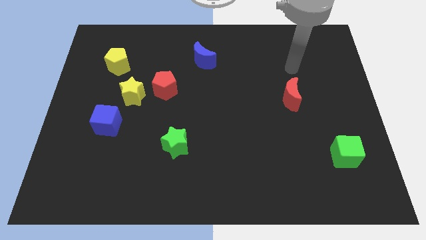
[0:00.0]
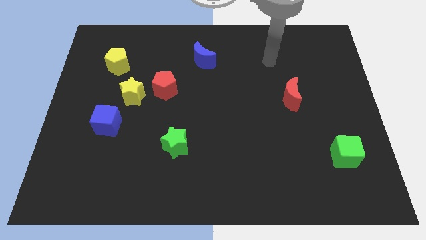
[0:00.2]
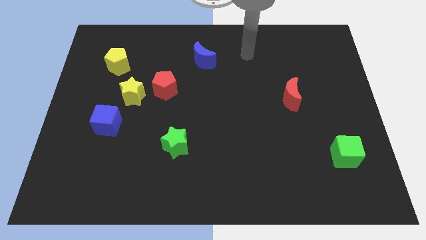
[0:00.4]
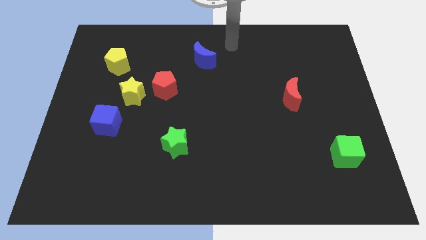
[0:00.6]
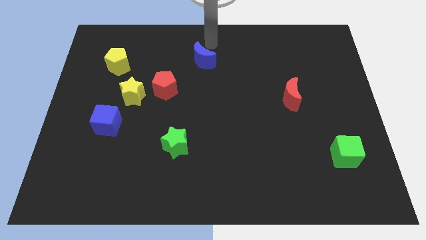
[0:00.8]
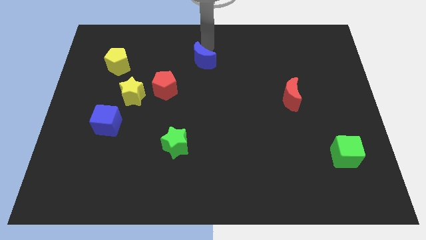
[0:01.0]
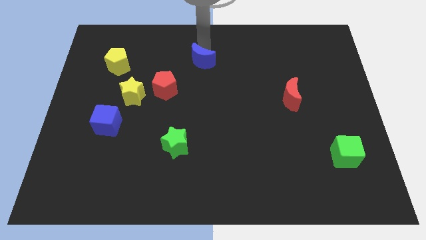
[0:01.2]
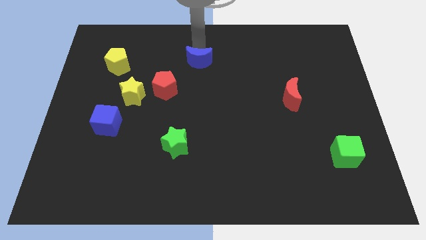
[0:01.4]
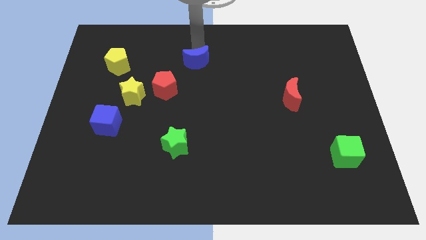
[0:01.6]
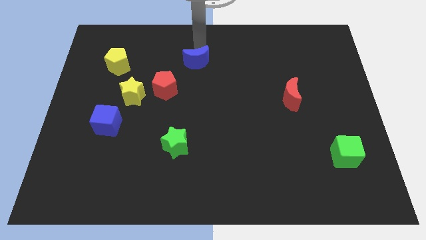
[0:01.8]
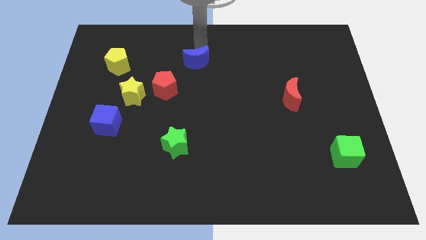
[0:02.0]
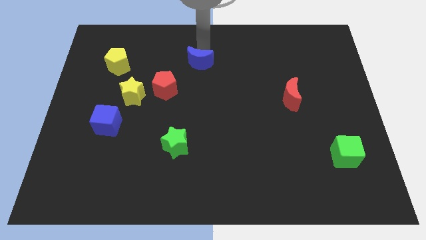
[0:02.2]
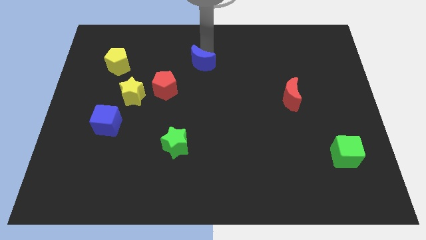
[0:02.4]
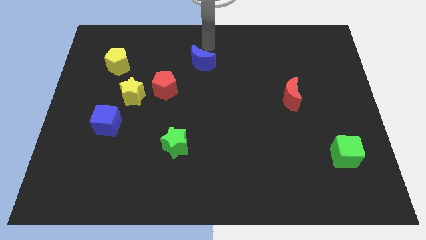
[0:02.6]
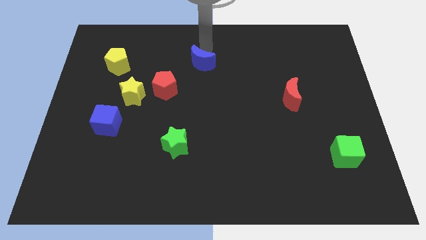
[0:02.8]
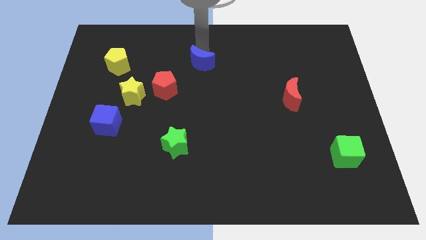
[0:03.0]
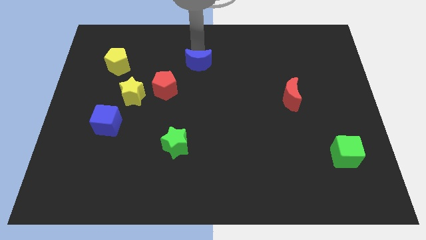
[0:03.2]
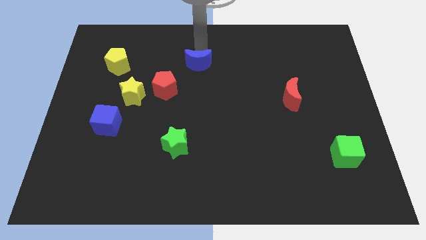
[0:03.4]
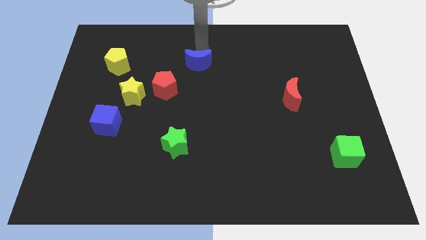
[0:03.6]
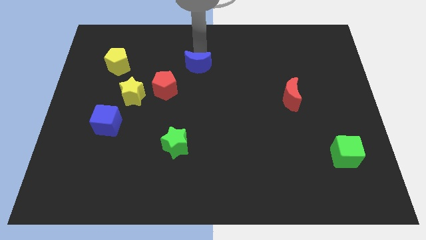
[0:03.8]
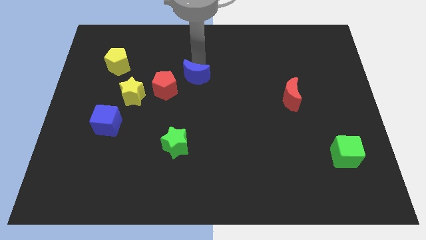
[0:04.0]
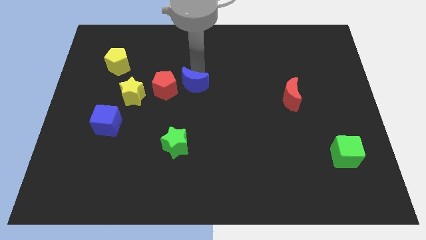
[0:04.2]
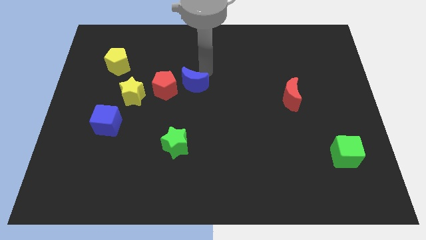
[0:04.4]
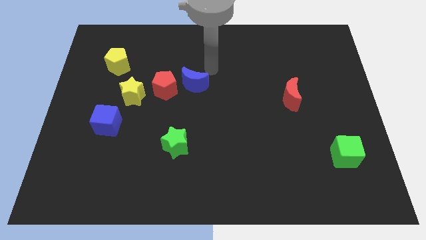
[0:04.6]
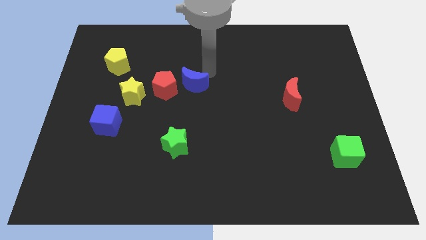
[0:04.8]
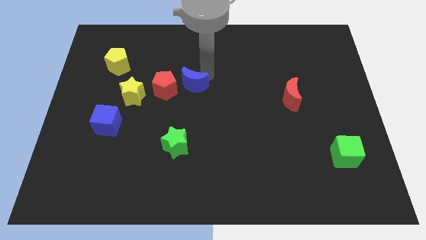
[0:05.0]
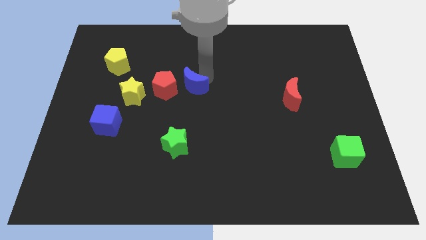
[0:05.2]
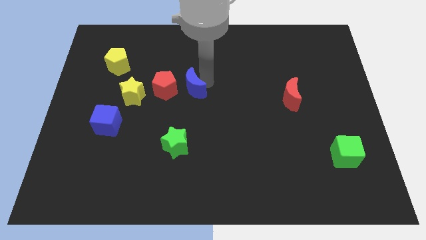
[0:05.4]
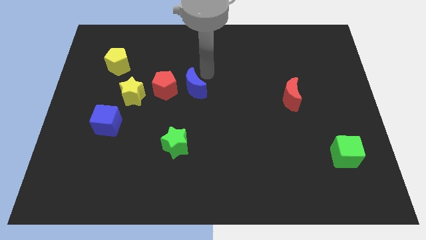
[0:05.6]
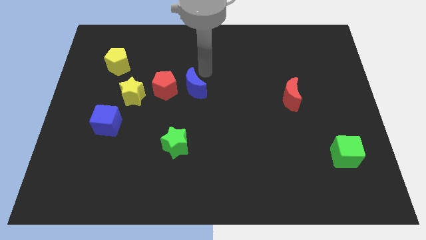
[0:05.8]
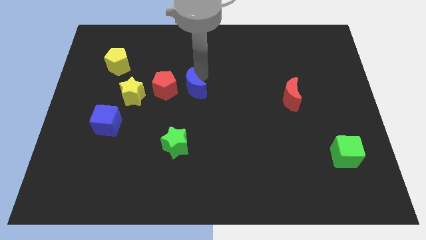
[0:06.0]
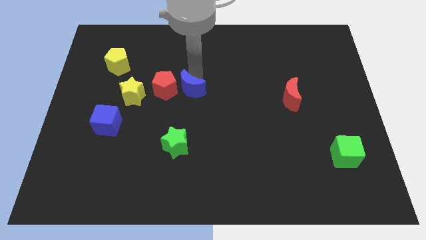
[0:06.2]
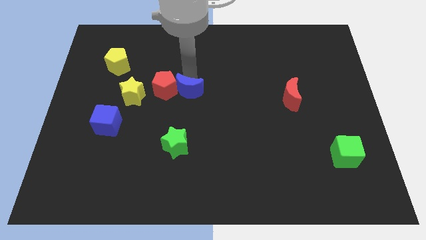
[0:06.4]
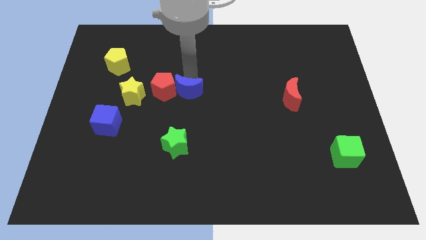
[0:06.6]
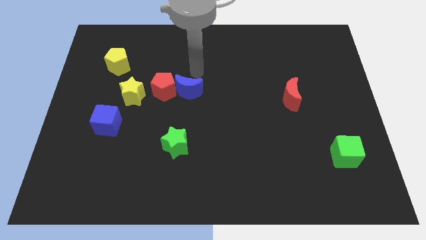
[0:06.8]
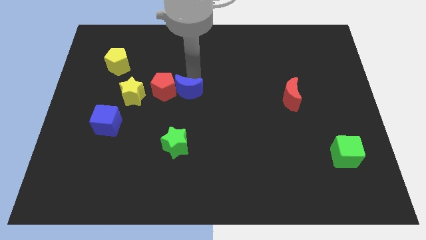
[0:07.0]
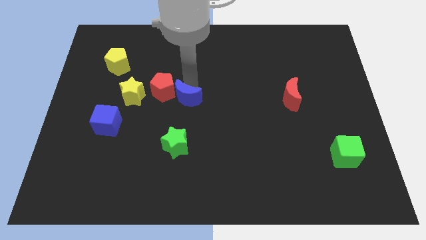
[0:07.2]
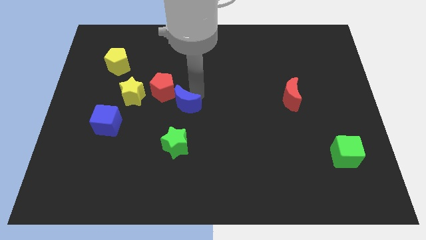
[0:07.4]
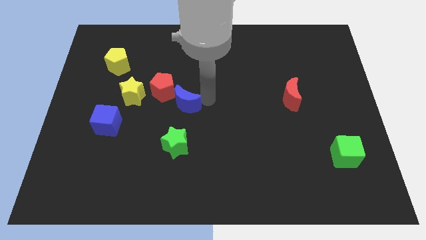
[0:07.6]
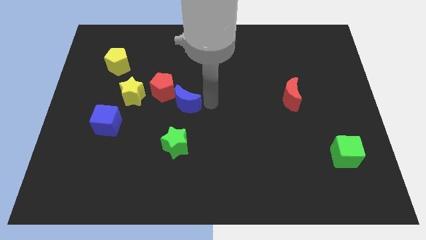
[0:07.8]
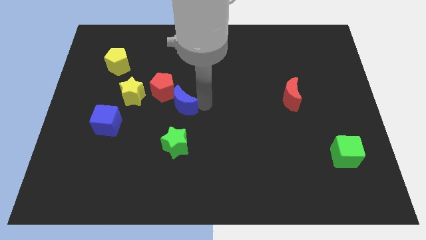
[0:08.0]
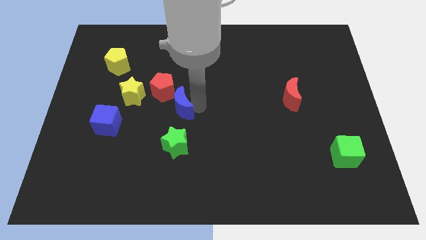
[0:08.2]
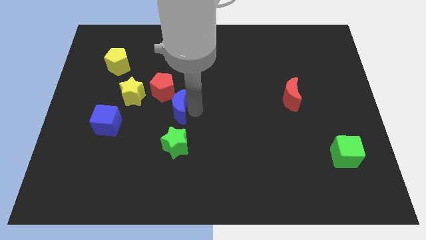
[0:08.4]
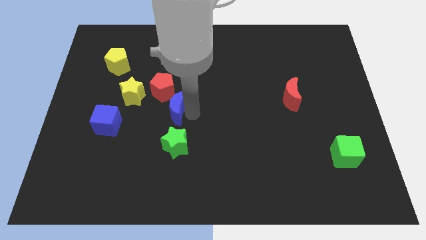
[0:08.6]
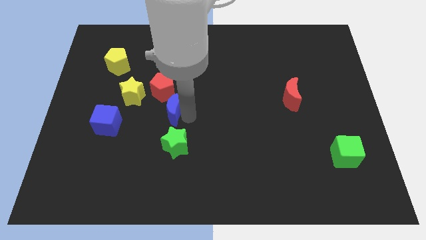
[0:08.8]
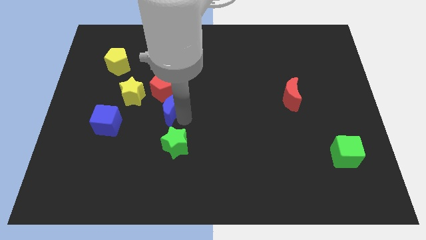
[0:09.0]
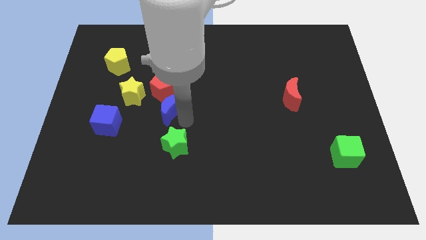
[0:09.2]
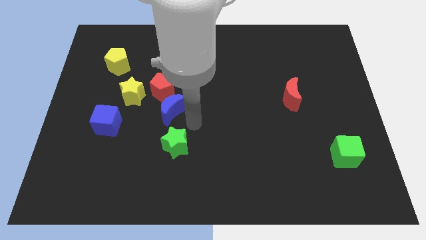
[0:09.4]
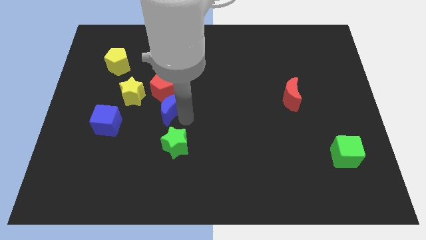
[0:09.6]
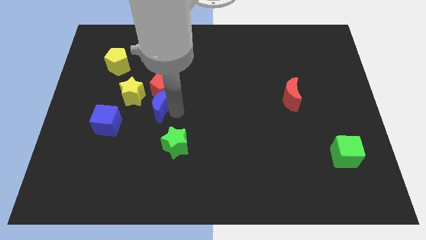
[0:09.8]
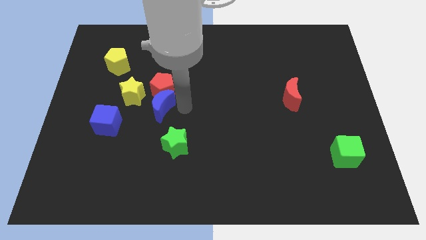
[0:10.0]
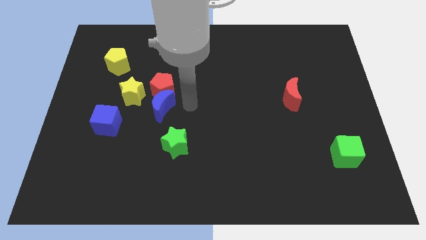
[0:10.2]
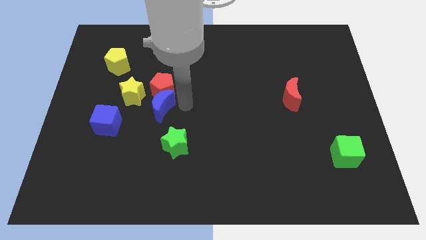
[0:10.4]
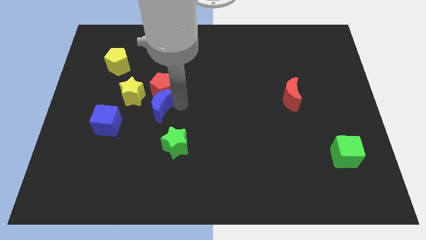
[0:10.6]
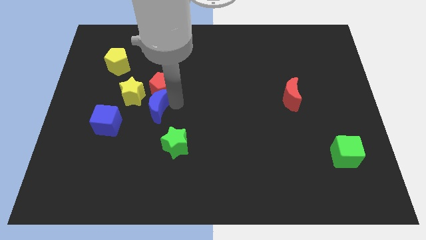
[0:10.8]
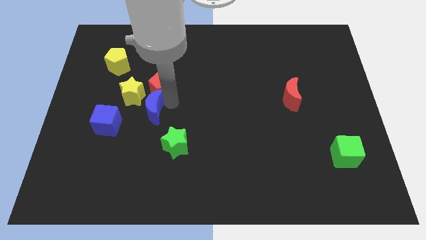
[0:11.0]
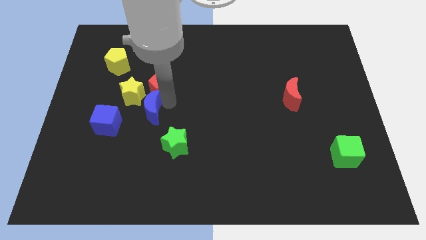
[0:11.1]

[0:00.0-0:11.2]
put the blue moon below the yellow star

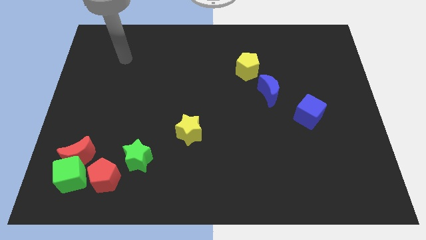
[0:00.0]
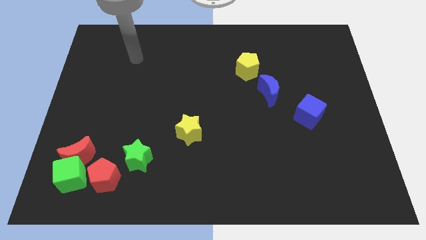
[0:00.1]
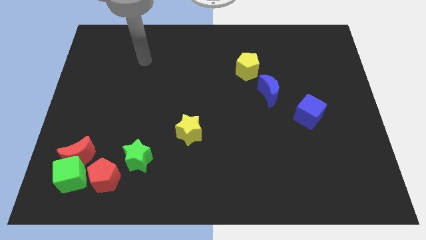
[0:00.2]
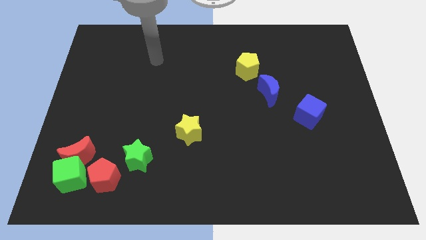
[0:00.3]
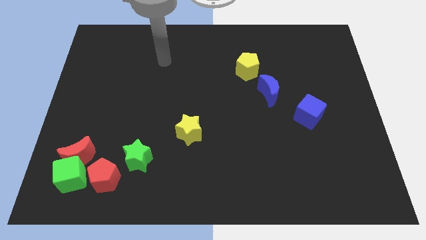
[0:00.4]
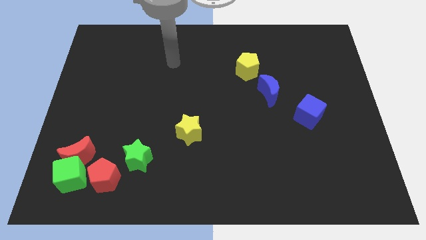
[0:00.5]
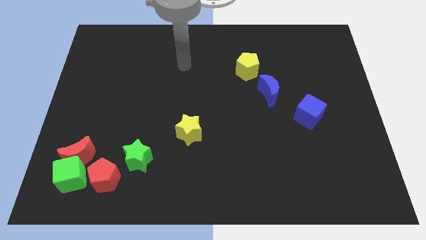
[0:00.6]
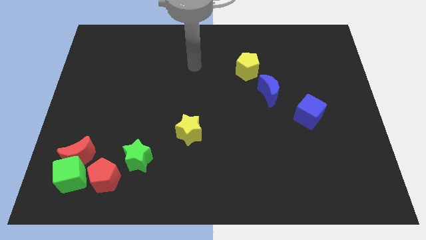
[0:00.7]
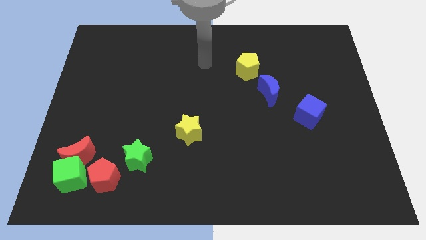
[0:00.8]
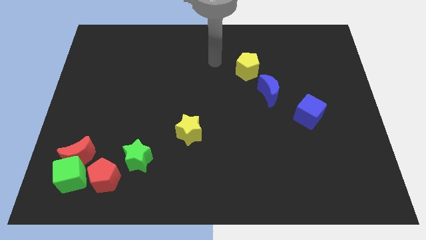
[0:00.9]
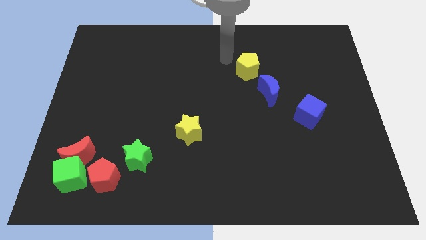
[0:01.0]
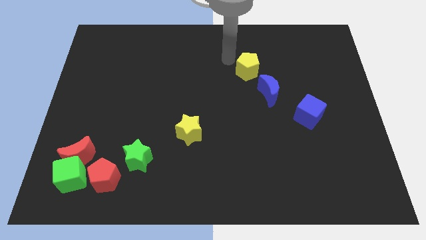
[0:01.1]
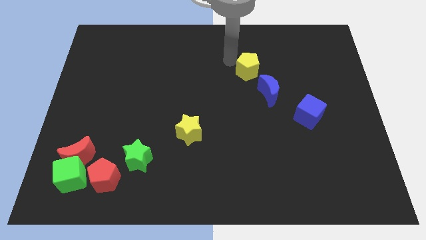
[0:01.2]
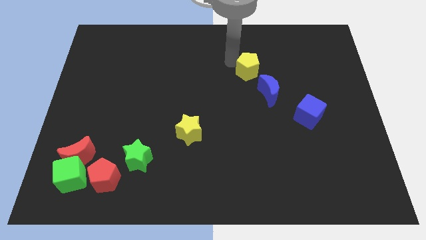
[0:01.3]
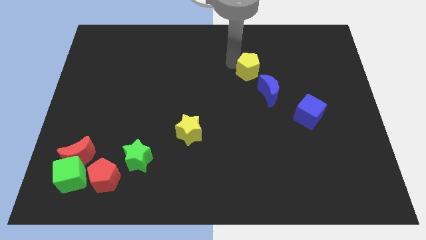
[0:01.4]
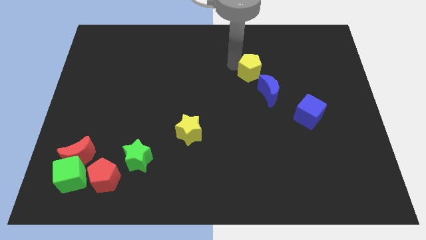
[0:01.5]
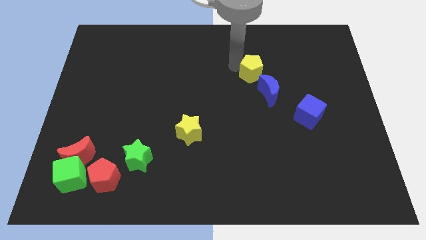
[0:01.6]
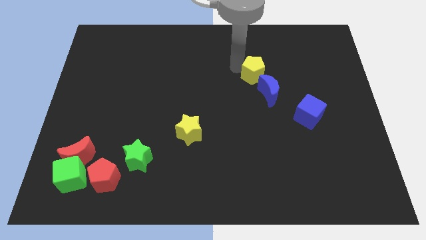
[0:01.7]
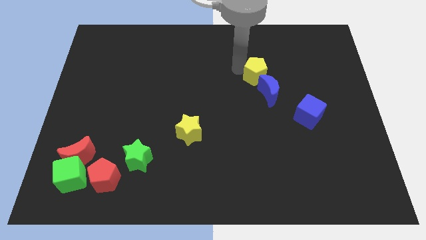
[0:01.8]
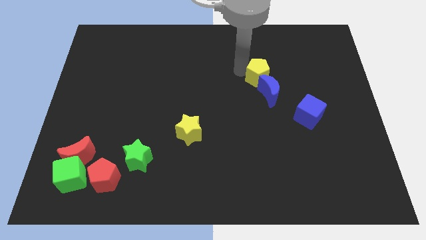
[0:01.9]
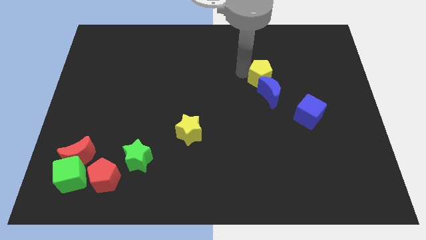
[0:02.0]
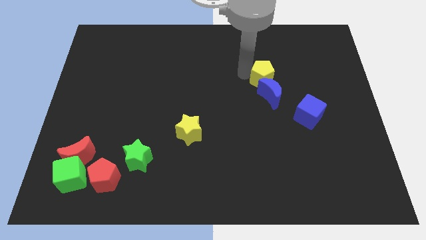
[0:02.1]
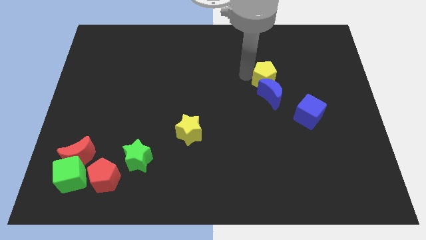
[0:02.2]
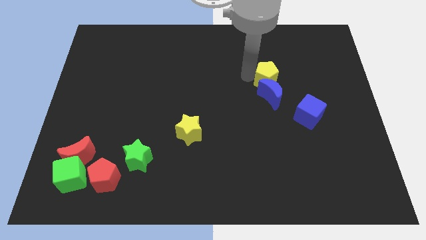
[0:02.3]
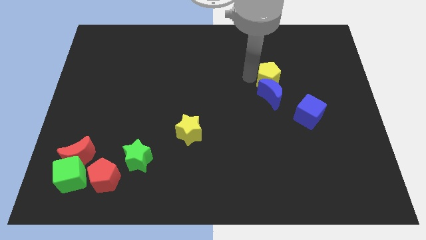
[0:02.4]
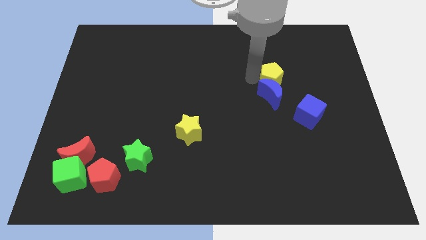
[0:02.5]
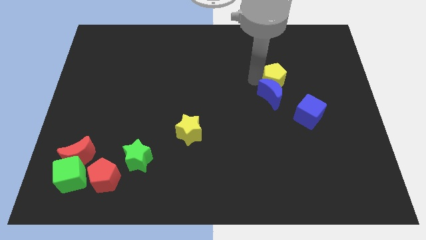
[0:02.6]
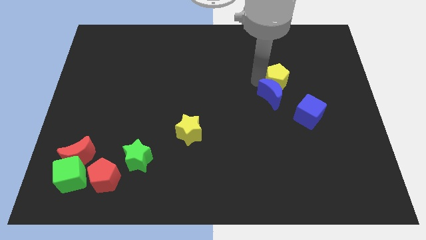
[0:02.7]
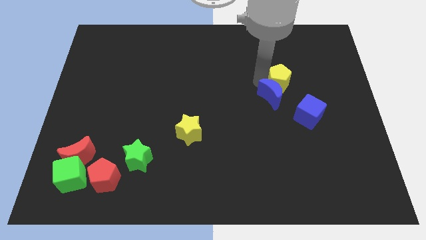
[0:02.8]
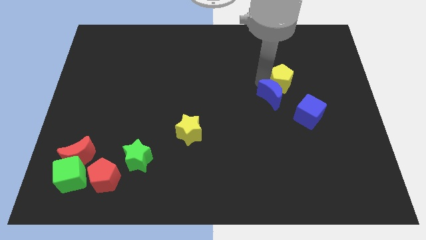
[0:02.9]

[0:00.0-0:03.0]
push the yellow pentagon right of the blue moon
